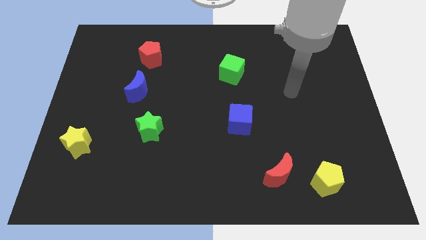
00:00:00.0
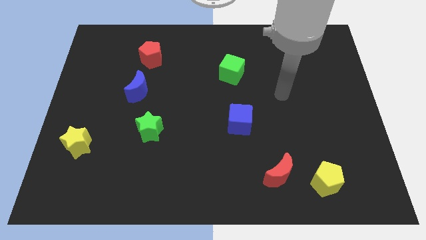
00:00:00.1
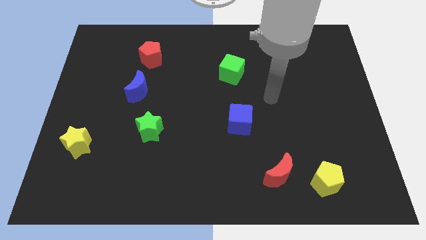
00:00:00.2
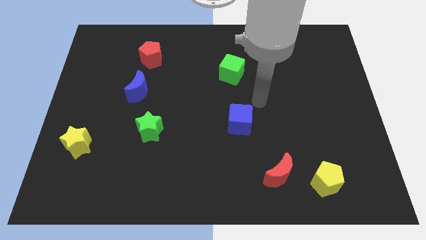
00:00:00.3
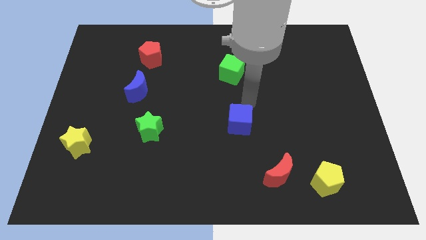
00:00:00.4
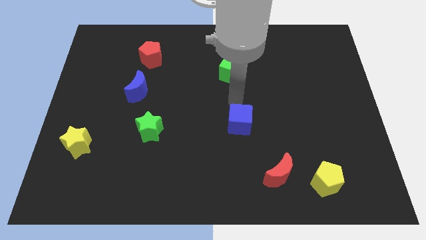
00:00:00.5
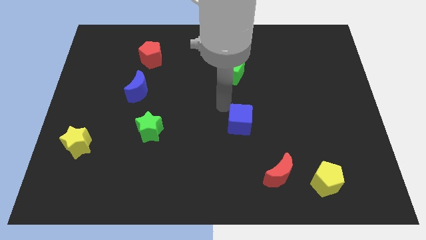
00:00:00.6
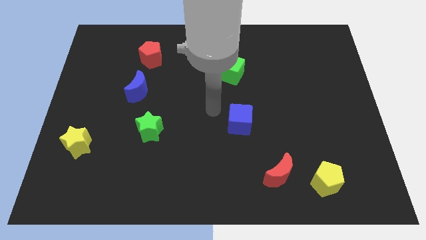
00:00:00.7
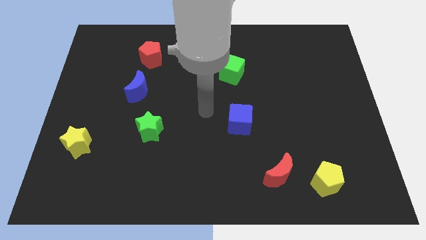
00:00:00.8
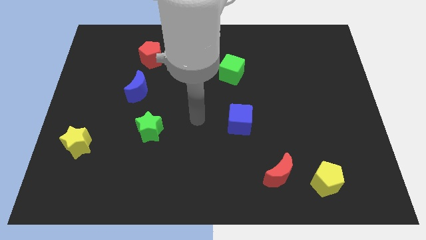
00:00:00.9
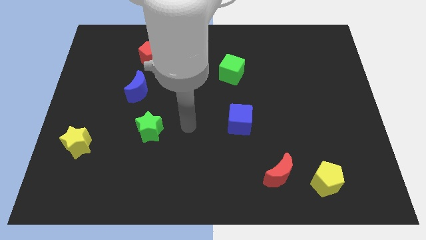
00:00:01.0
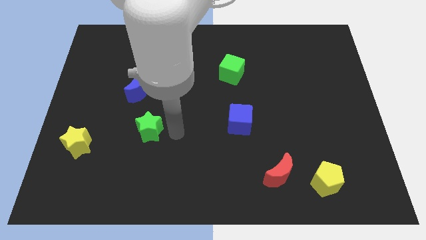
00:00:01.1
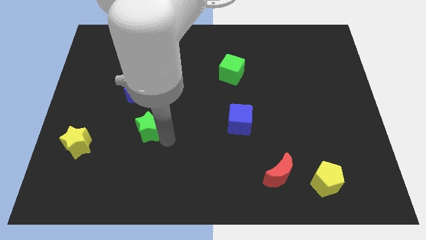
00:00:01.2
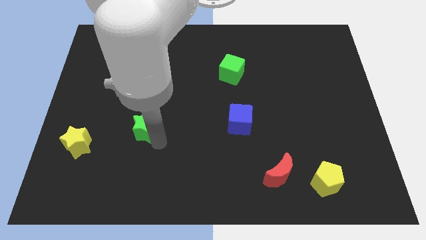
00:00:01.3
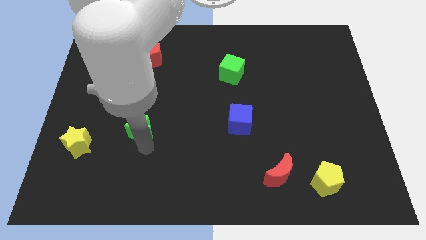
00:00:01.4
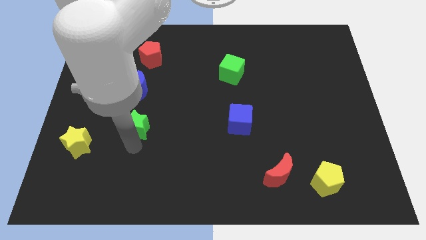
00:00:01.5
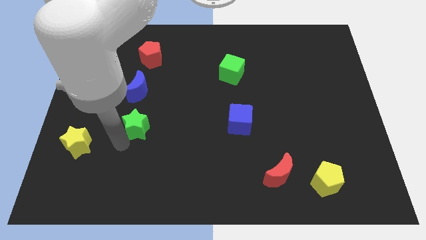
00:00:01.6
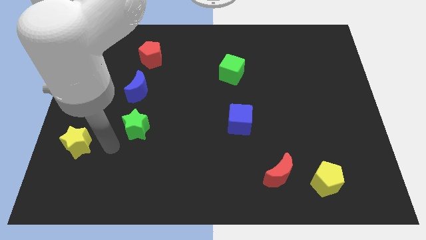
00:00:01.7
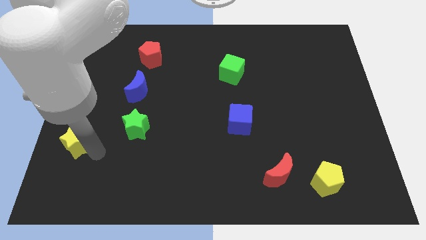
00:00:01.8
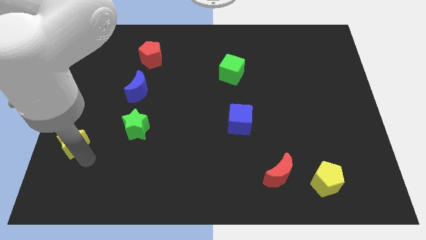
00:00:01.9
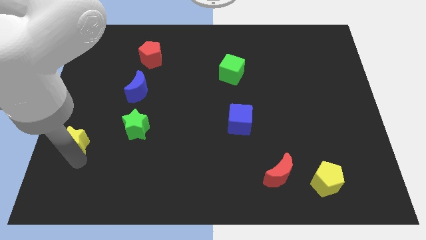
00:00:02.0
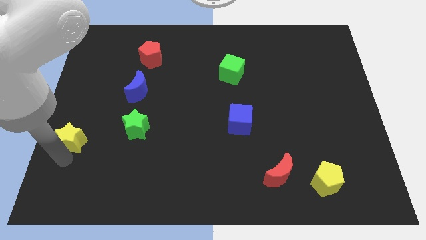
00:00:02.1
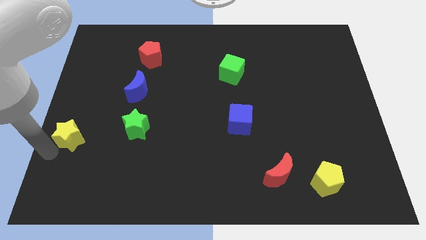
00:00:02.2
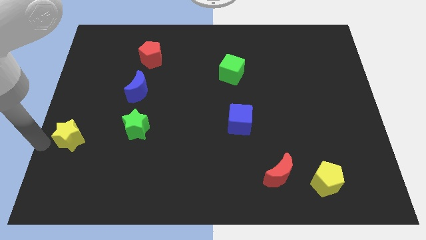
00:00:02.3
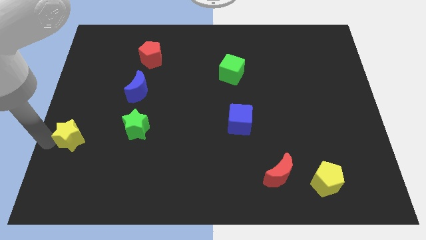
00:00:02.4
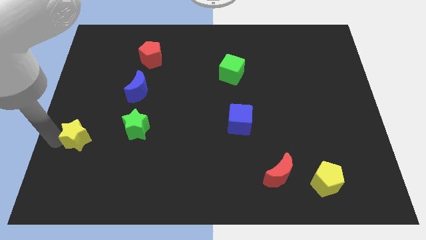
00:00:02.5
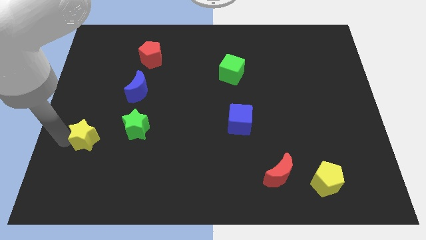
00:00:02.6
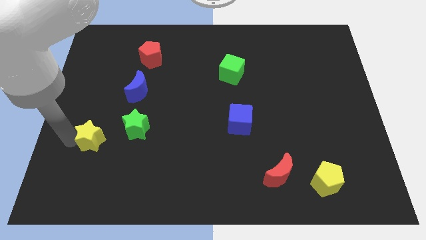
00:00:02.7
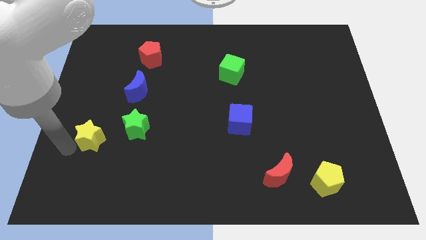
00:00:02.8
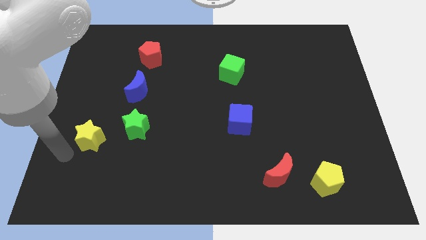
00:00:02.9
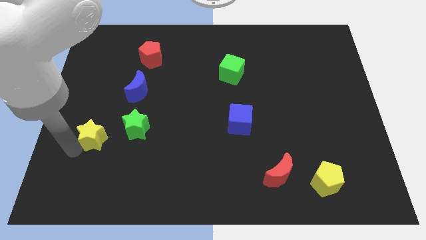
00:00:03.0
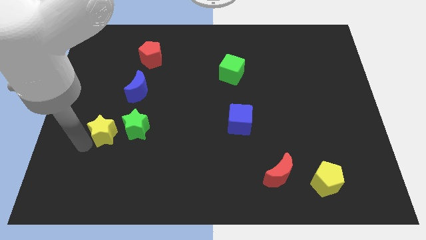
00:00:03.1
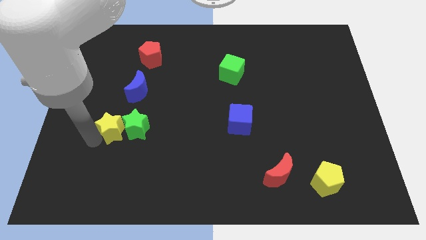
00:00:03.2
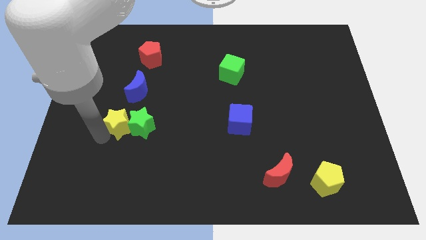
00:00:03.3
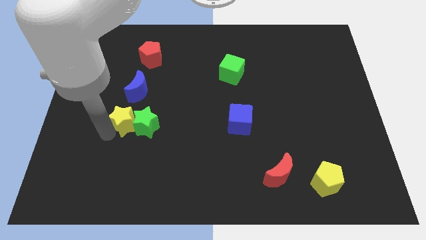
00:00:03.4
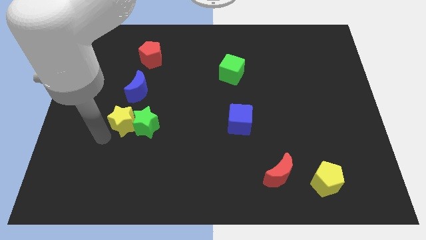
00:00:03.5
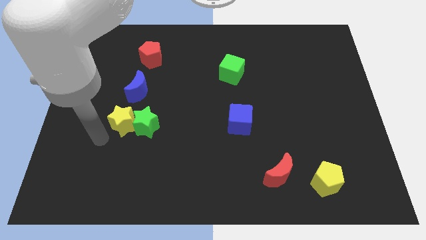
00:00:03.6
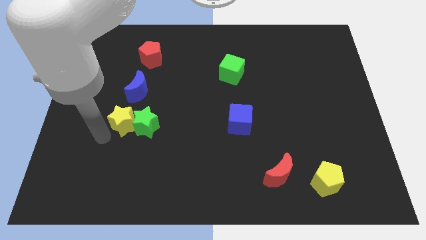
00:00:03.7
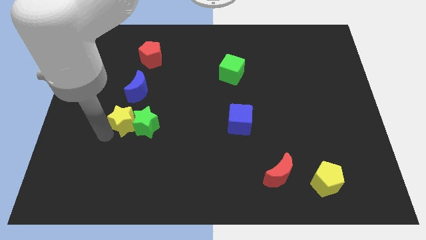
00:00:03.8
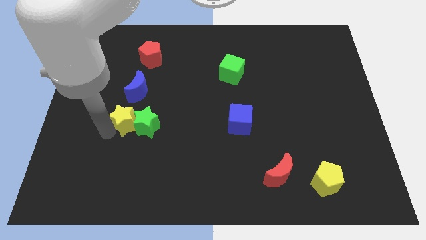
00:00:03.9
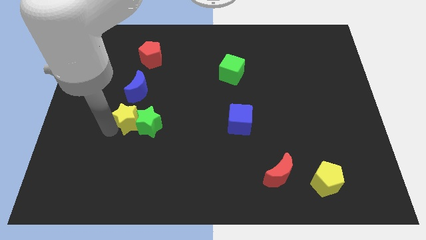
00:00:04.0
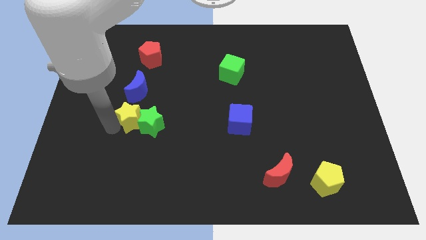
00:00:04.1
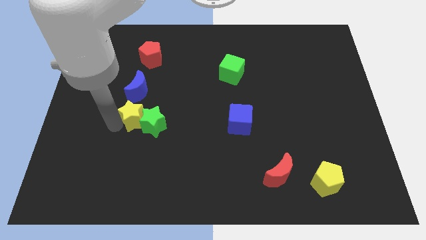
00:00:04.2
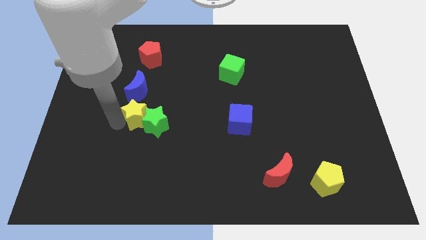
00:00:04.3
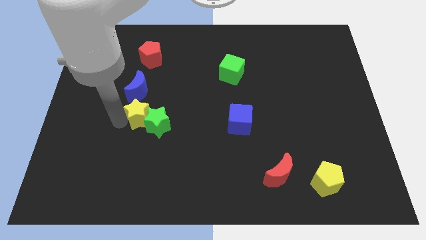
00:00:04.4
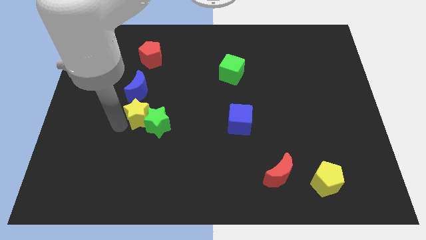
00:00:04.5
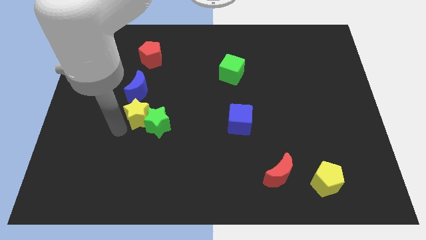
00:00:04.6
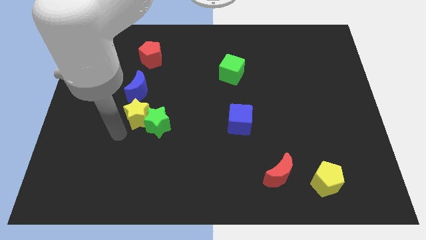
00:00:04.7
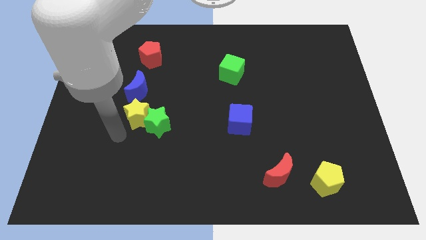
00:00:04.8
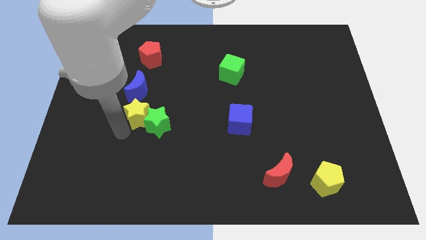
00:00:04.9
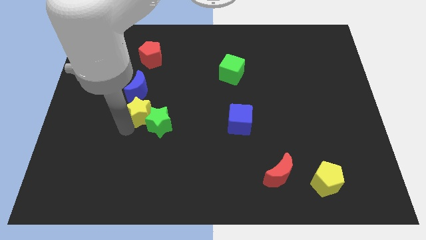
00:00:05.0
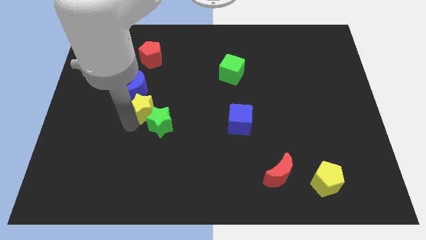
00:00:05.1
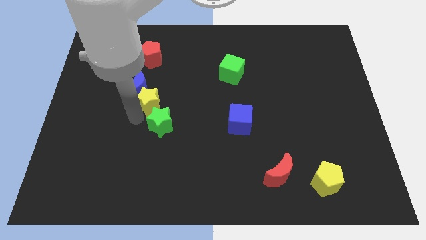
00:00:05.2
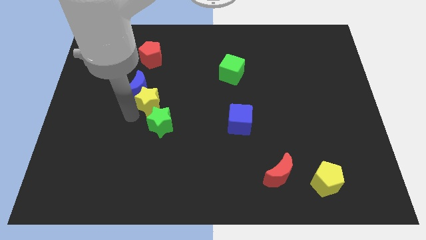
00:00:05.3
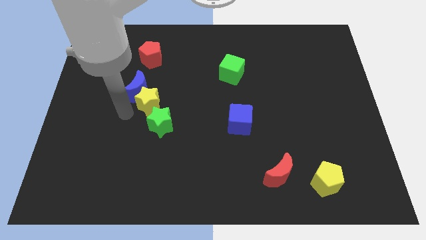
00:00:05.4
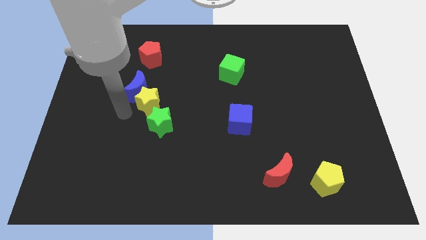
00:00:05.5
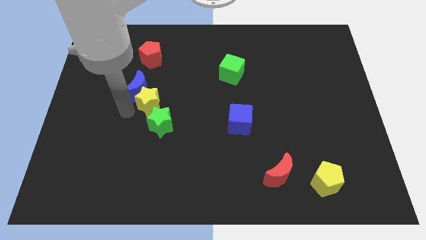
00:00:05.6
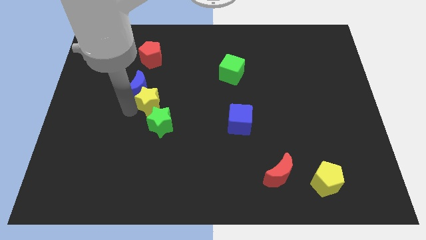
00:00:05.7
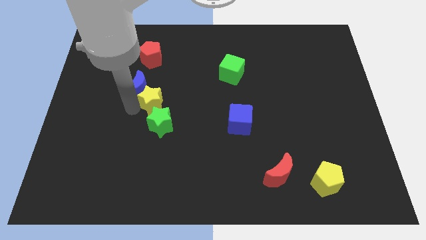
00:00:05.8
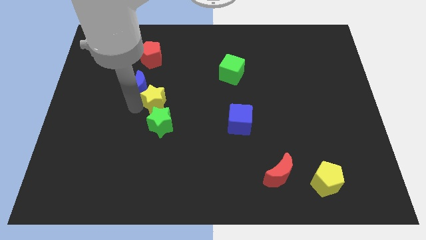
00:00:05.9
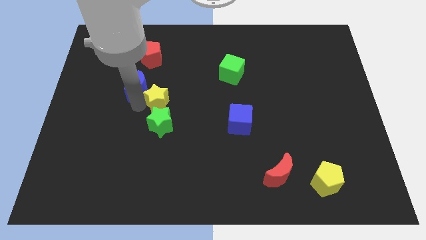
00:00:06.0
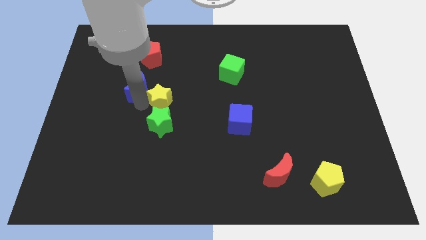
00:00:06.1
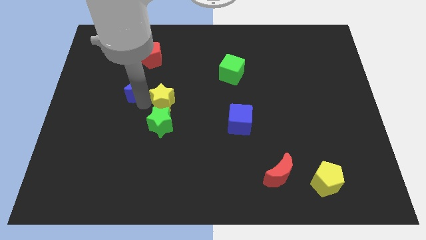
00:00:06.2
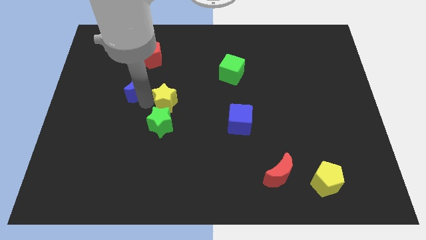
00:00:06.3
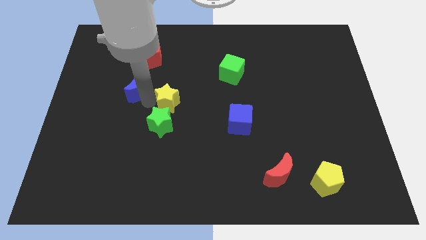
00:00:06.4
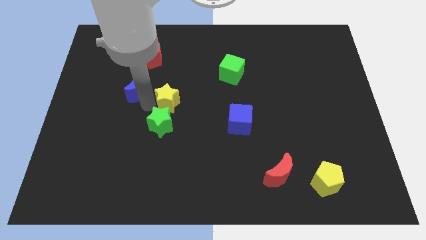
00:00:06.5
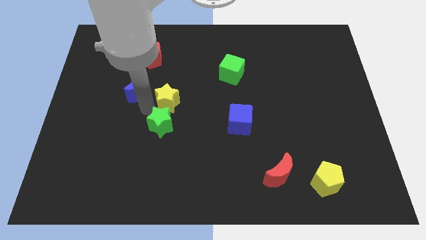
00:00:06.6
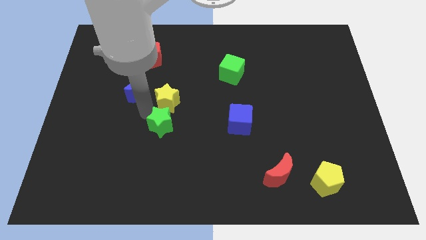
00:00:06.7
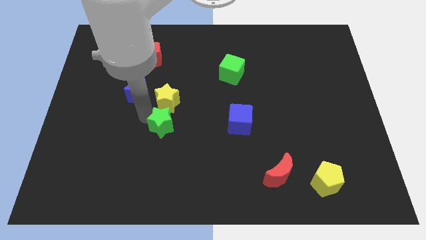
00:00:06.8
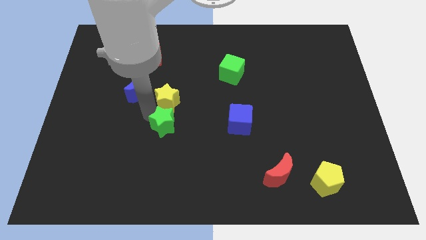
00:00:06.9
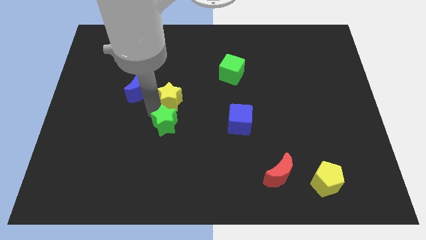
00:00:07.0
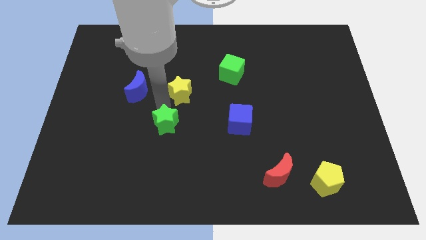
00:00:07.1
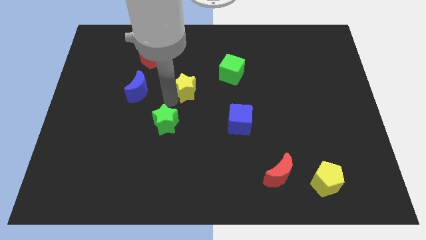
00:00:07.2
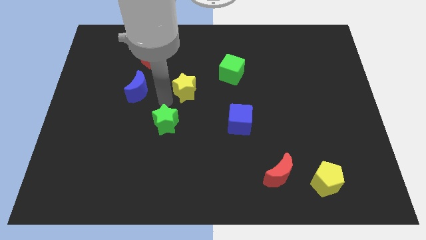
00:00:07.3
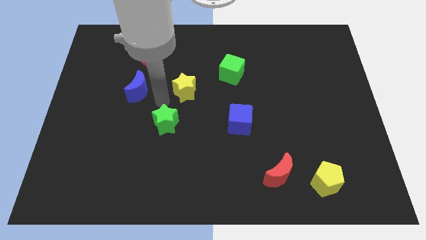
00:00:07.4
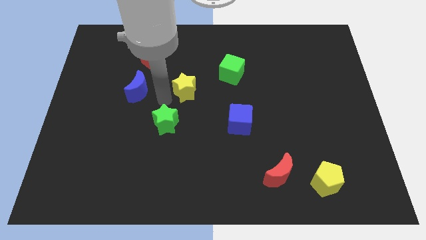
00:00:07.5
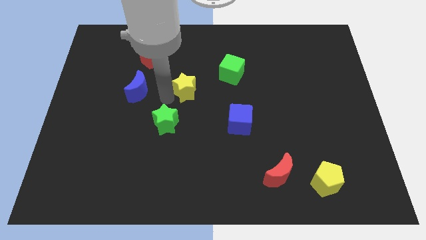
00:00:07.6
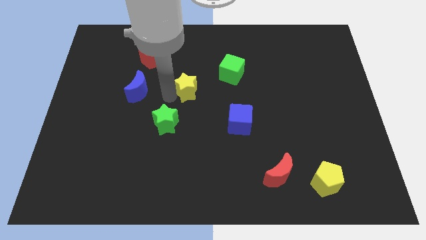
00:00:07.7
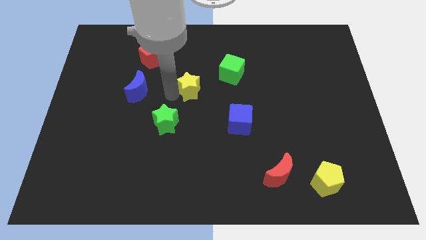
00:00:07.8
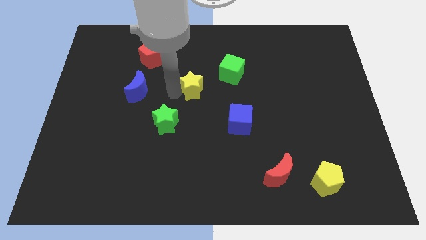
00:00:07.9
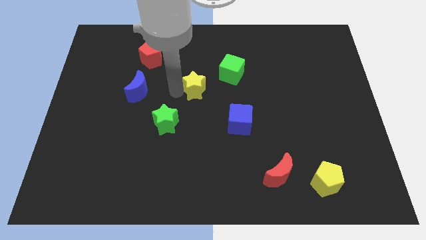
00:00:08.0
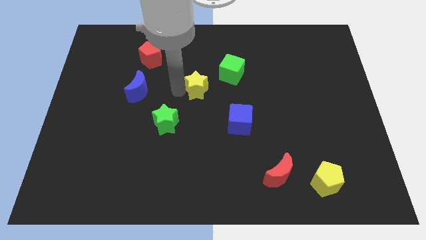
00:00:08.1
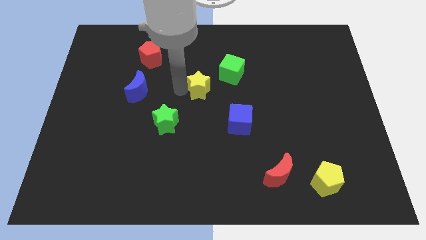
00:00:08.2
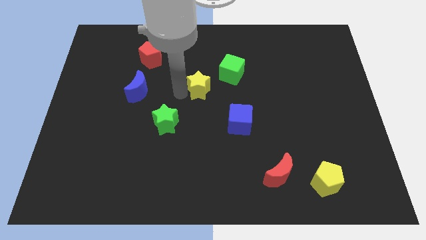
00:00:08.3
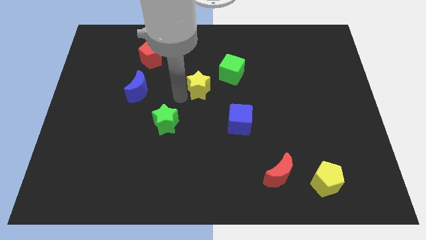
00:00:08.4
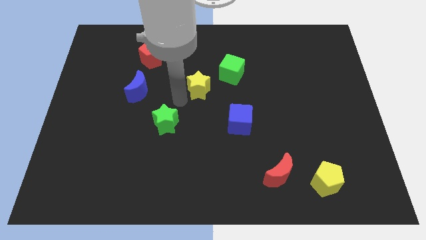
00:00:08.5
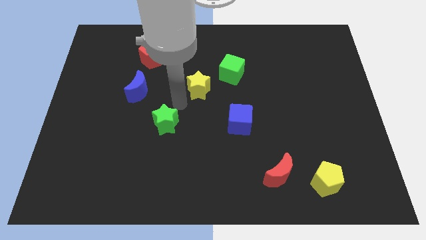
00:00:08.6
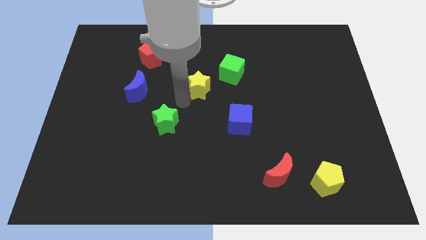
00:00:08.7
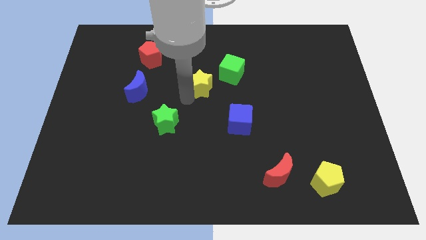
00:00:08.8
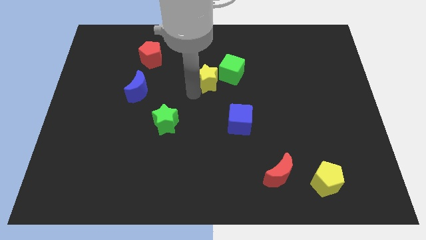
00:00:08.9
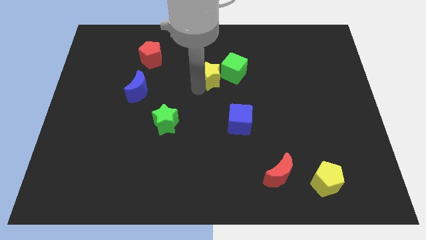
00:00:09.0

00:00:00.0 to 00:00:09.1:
move the yellow star next to the green cube
